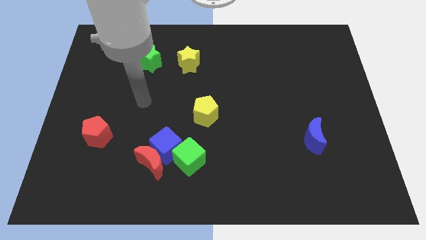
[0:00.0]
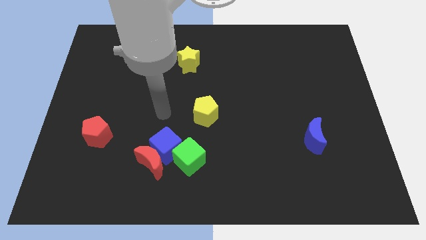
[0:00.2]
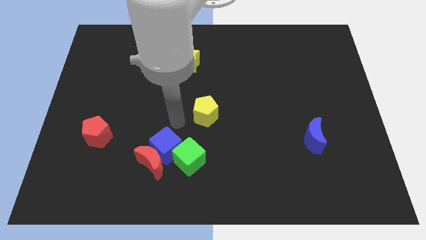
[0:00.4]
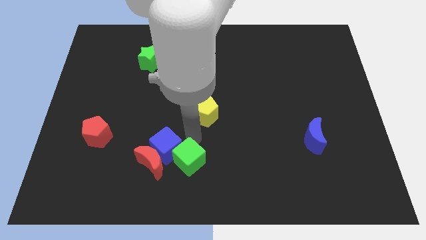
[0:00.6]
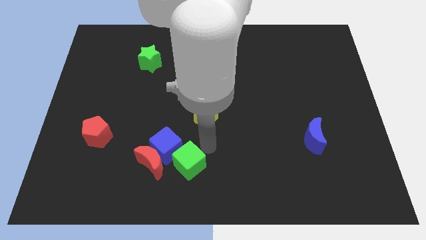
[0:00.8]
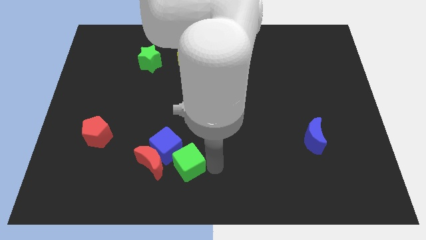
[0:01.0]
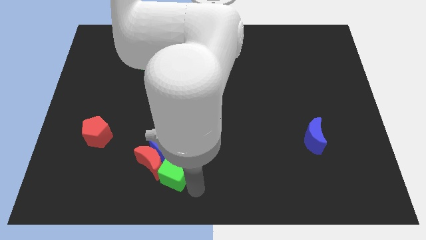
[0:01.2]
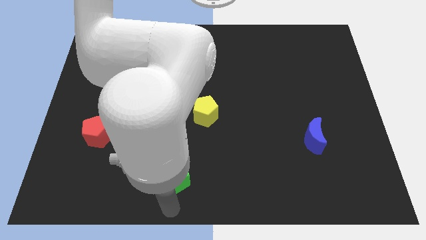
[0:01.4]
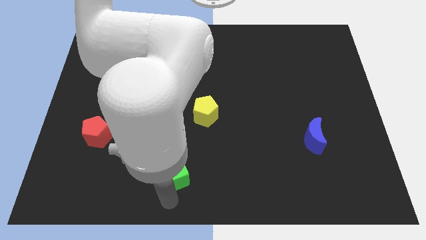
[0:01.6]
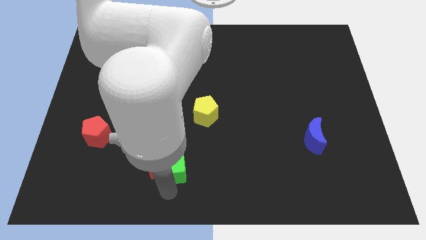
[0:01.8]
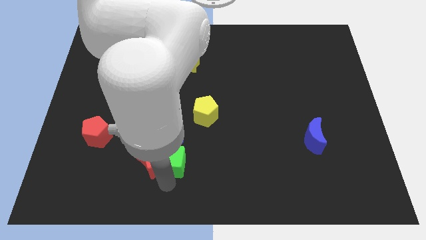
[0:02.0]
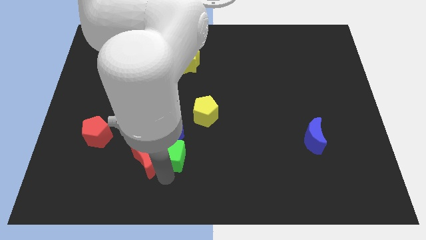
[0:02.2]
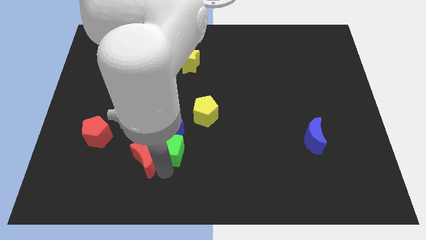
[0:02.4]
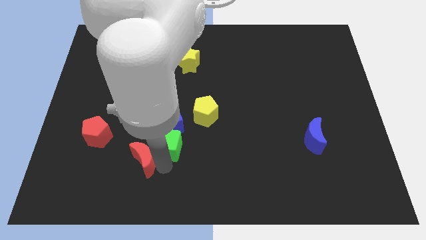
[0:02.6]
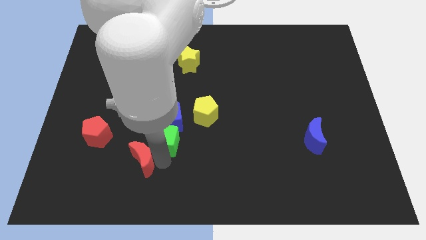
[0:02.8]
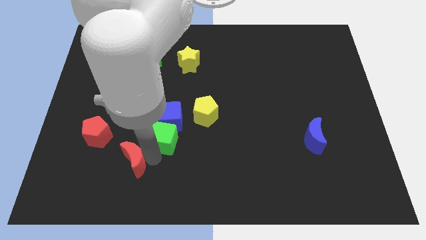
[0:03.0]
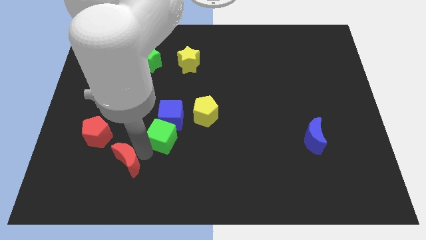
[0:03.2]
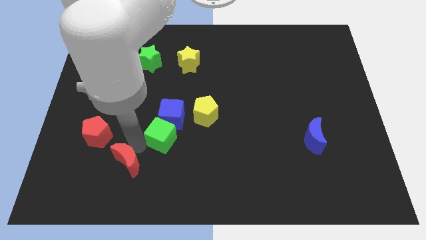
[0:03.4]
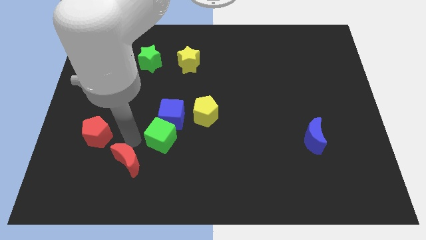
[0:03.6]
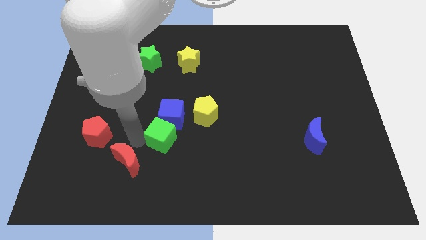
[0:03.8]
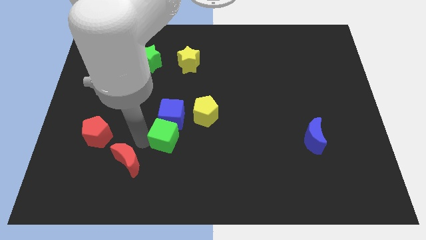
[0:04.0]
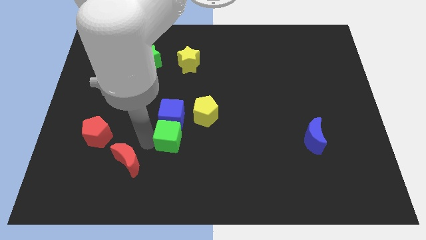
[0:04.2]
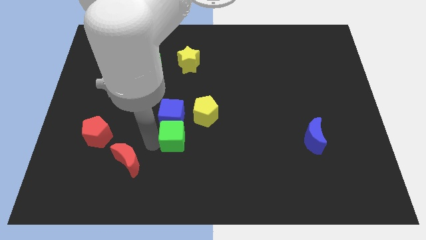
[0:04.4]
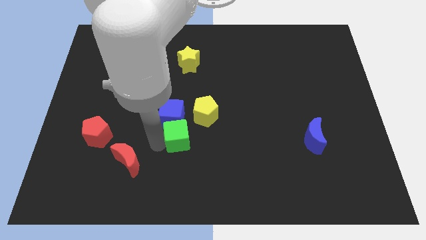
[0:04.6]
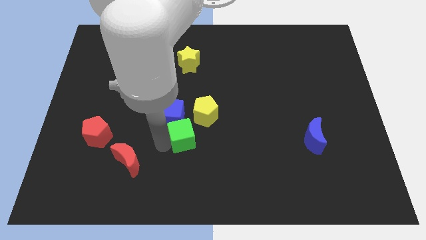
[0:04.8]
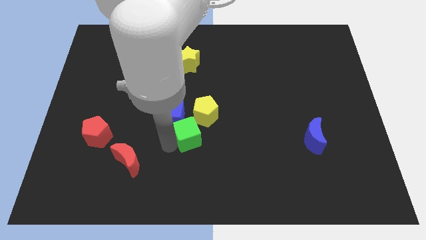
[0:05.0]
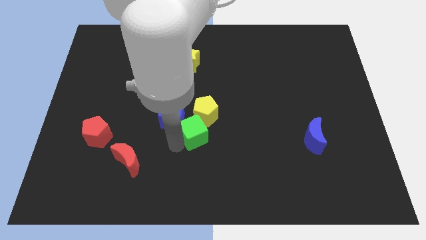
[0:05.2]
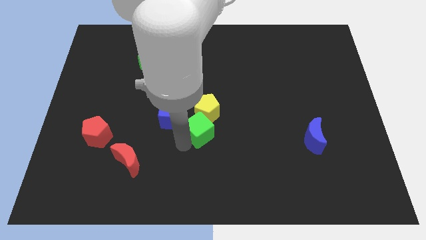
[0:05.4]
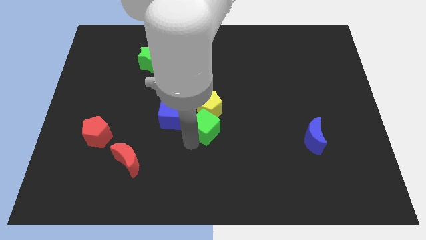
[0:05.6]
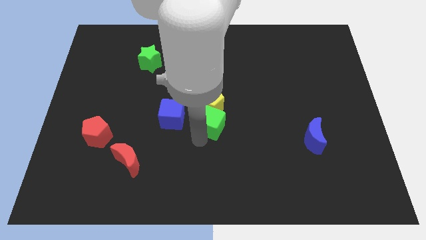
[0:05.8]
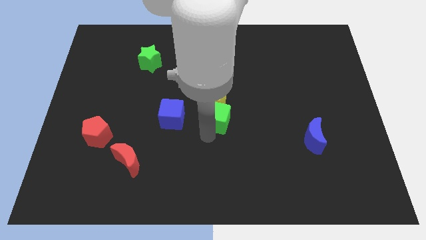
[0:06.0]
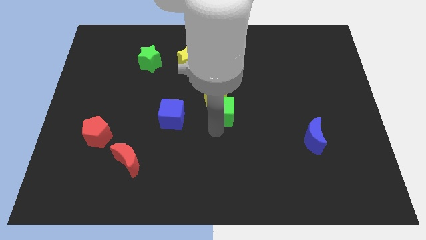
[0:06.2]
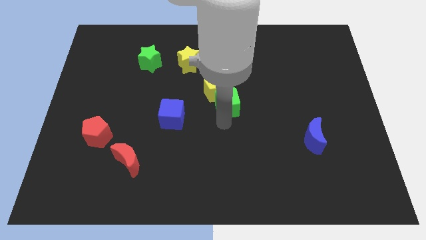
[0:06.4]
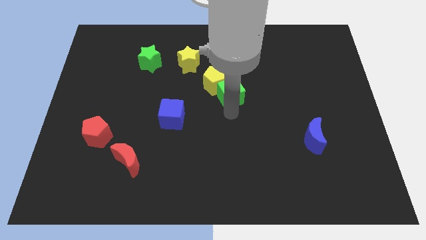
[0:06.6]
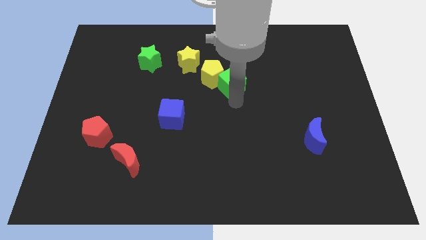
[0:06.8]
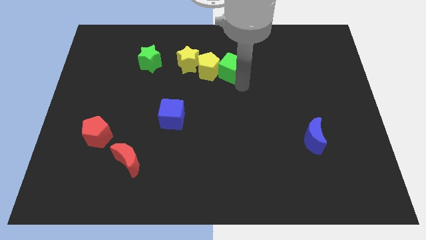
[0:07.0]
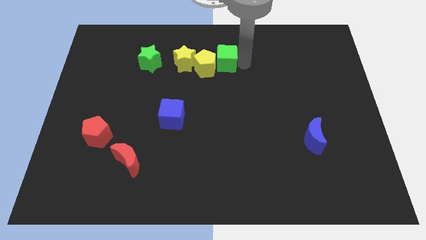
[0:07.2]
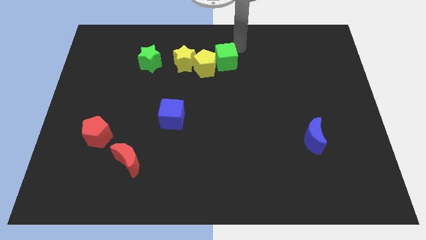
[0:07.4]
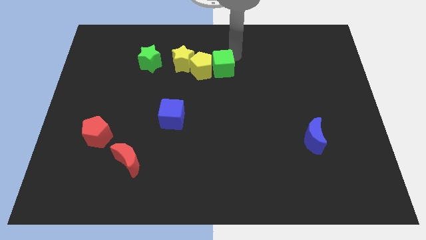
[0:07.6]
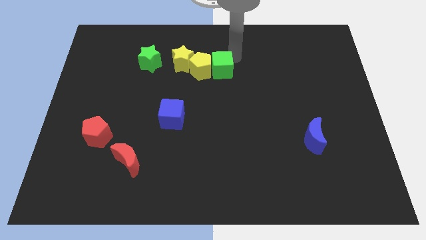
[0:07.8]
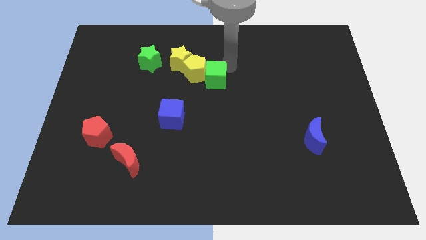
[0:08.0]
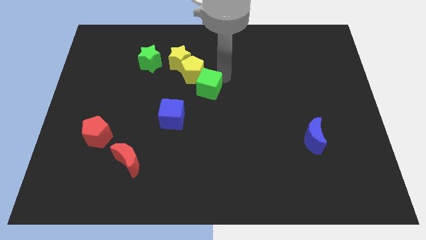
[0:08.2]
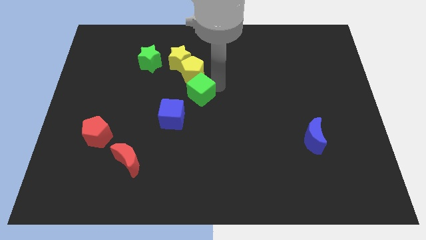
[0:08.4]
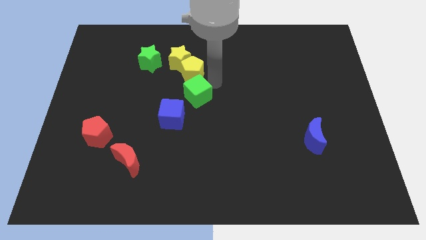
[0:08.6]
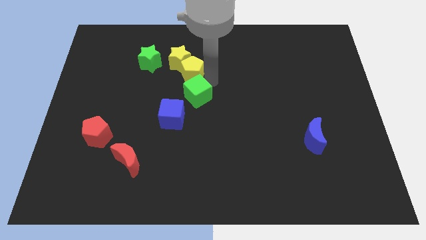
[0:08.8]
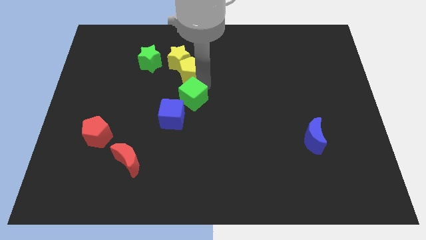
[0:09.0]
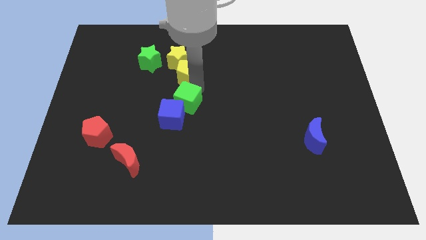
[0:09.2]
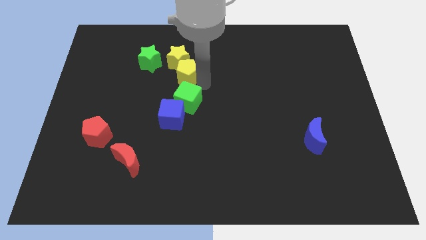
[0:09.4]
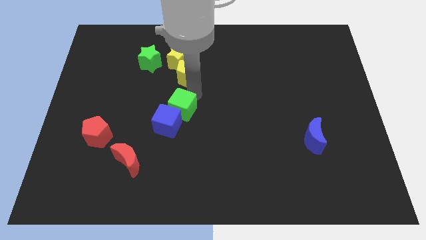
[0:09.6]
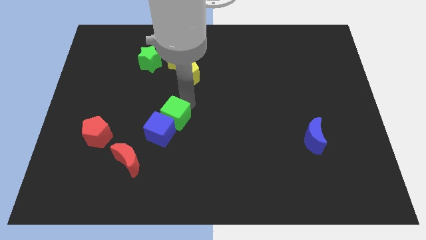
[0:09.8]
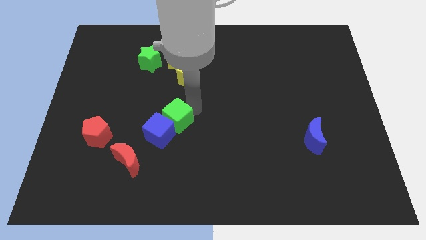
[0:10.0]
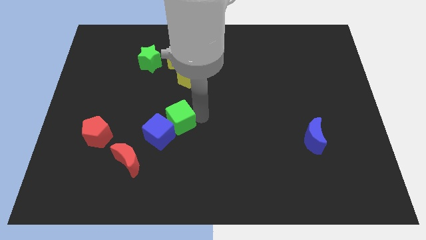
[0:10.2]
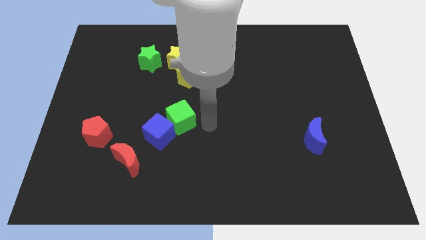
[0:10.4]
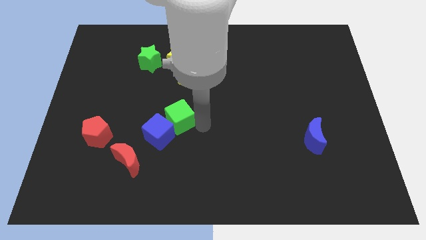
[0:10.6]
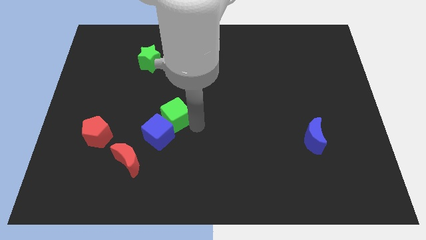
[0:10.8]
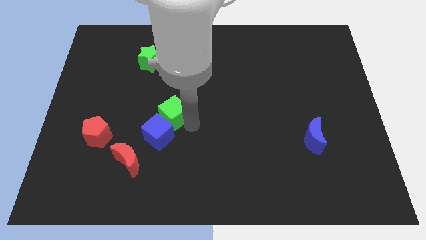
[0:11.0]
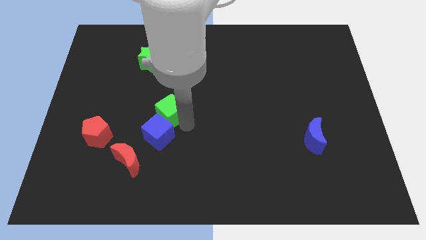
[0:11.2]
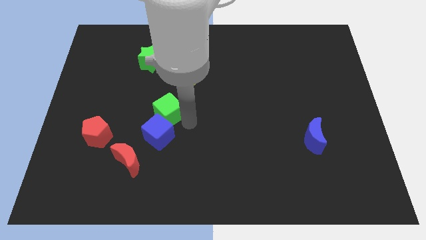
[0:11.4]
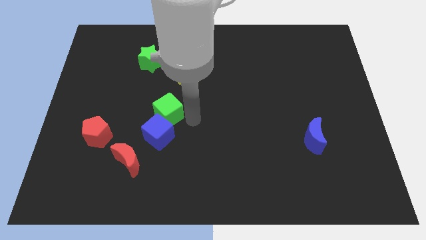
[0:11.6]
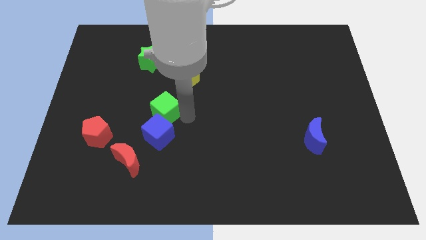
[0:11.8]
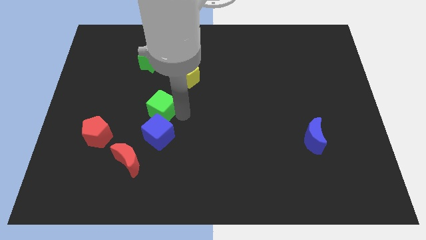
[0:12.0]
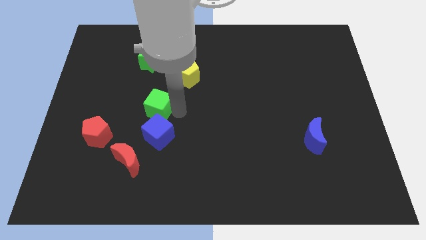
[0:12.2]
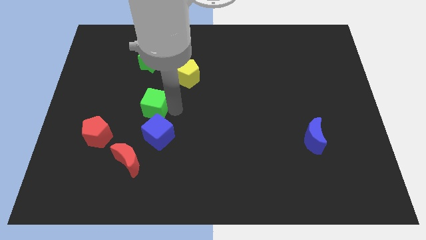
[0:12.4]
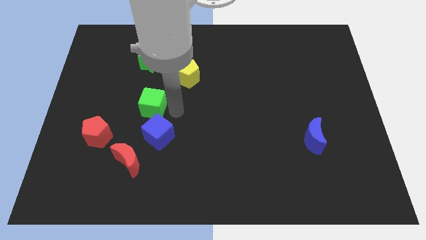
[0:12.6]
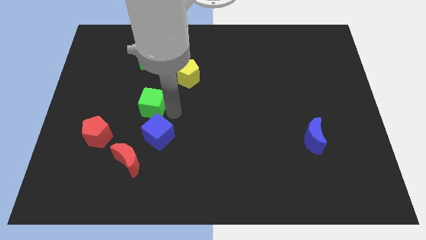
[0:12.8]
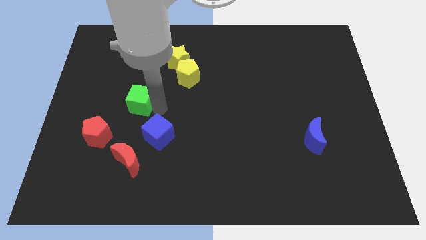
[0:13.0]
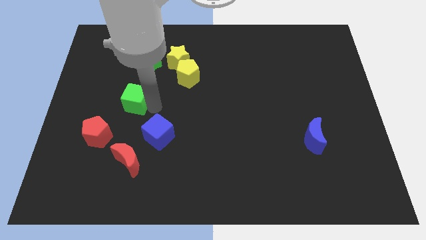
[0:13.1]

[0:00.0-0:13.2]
move the green cube upwards and then left

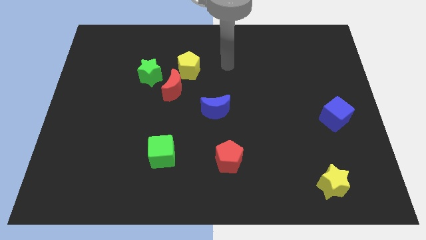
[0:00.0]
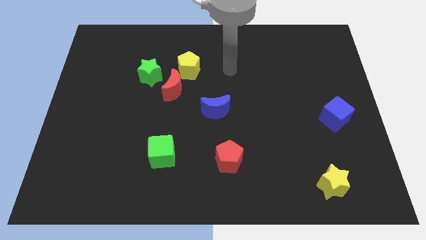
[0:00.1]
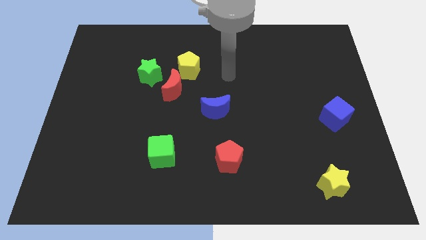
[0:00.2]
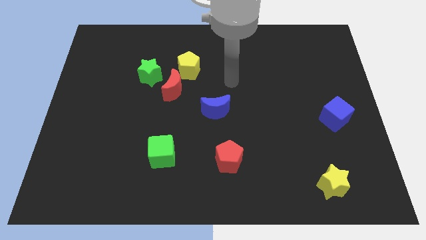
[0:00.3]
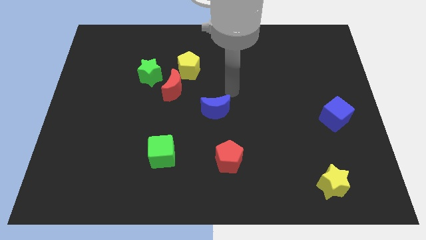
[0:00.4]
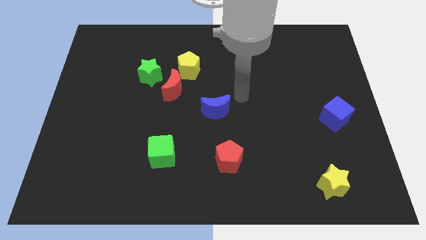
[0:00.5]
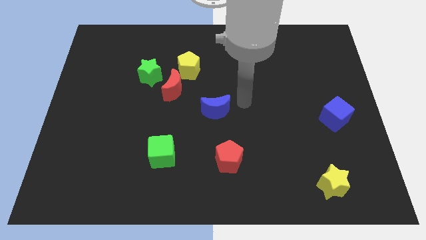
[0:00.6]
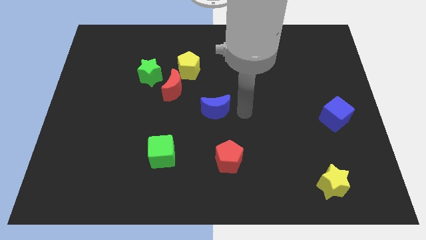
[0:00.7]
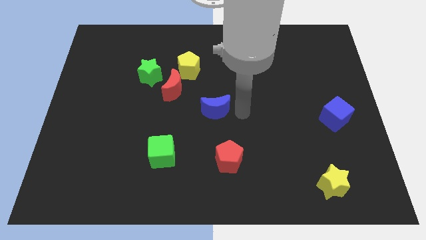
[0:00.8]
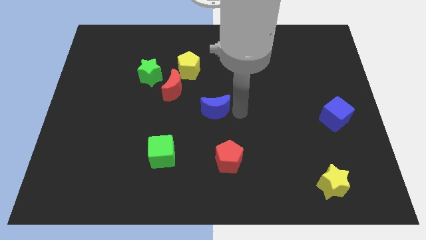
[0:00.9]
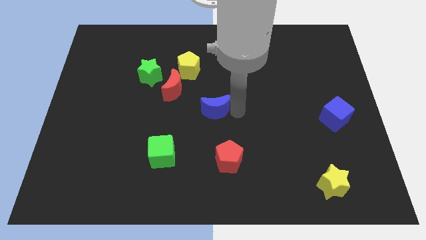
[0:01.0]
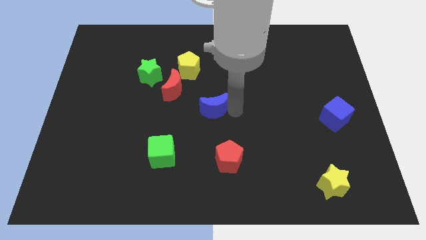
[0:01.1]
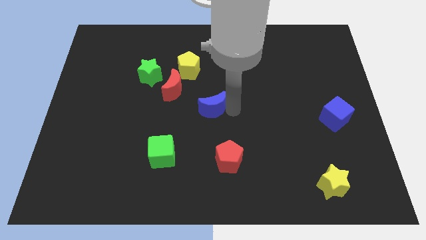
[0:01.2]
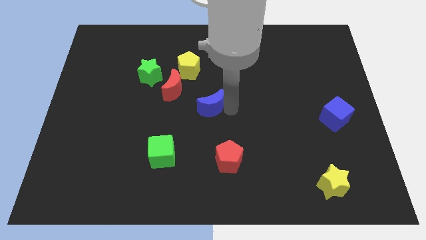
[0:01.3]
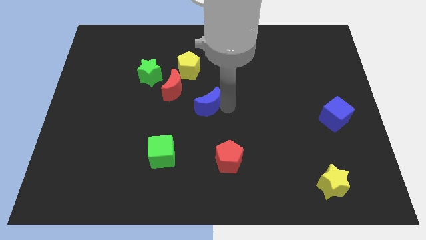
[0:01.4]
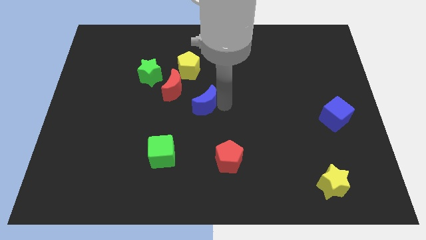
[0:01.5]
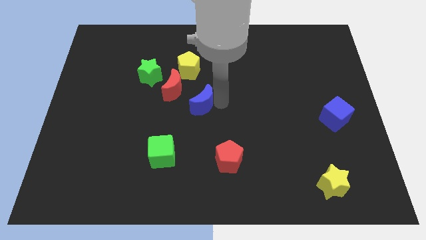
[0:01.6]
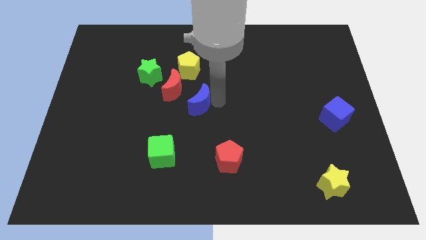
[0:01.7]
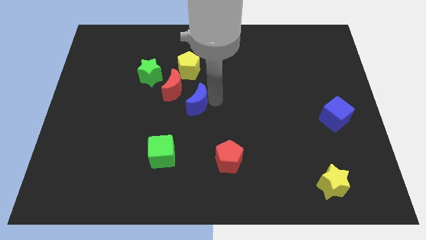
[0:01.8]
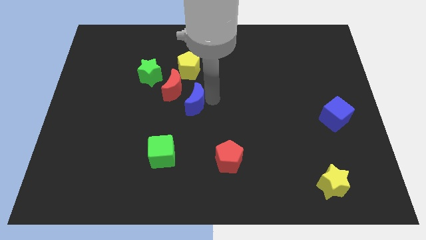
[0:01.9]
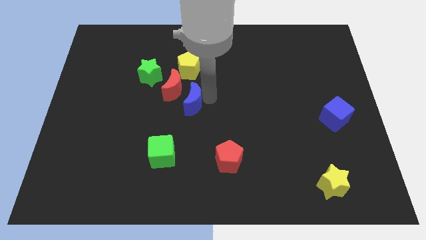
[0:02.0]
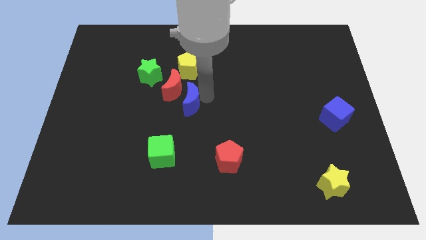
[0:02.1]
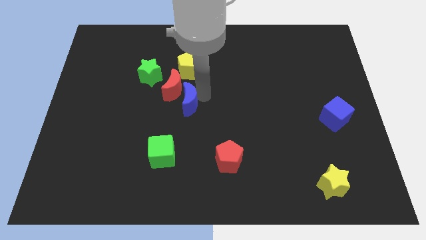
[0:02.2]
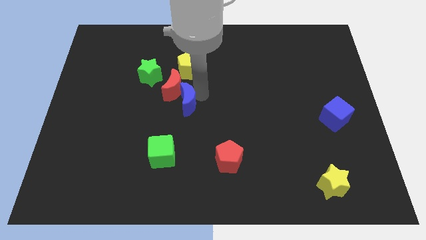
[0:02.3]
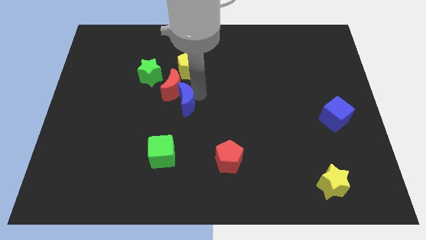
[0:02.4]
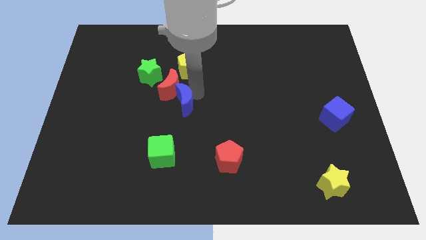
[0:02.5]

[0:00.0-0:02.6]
slide the blue moon somewhat left
